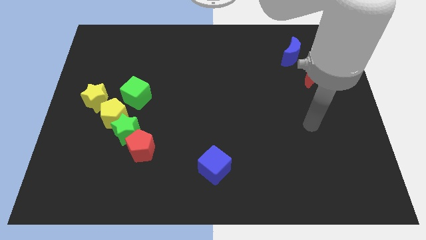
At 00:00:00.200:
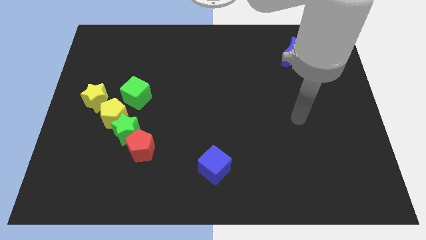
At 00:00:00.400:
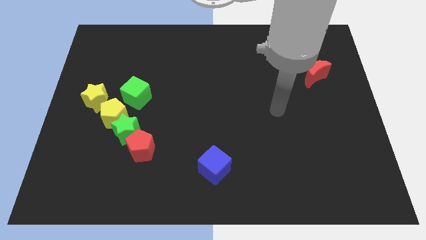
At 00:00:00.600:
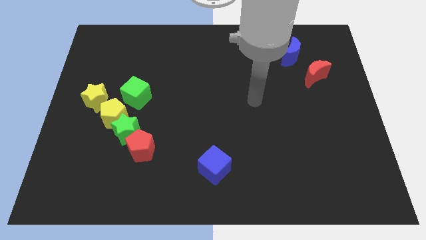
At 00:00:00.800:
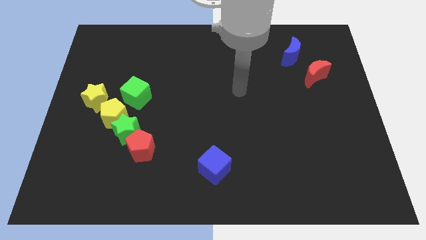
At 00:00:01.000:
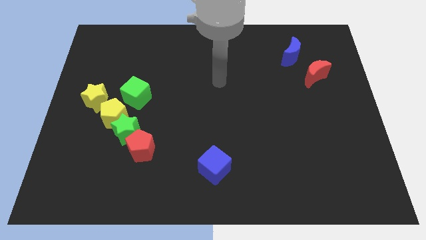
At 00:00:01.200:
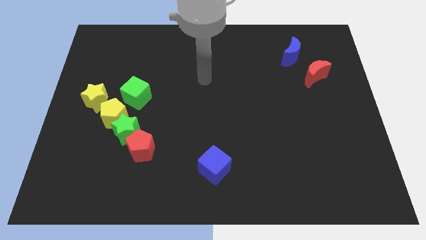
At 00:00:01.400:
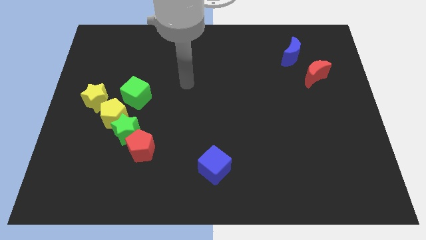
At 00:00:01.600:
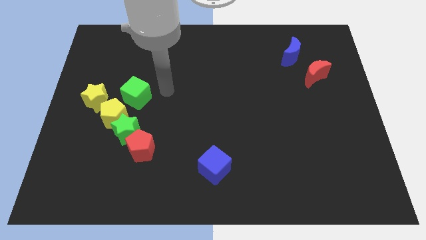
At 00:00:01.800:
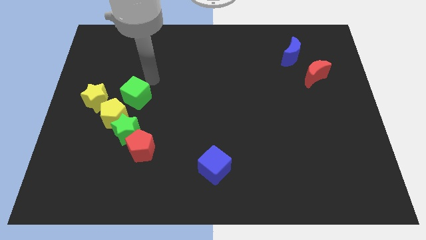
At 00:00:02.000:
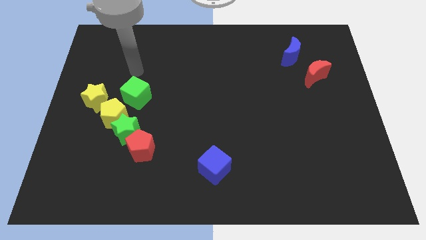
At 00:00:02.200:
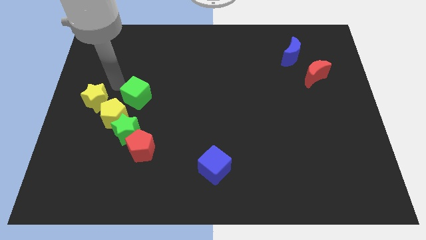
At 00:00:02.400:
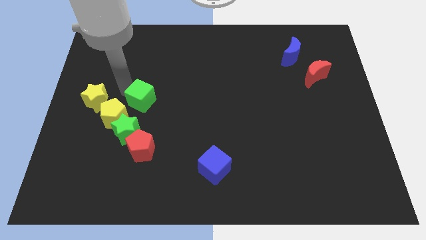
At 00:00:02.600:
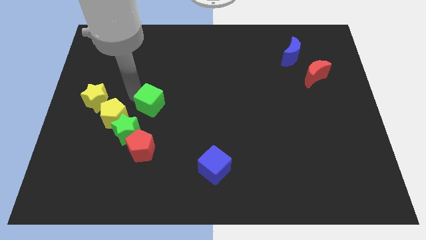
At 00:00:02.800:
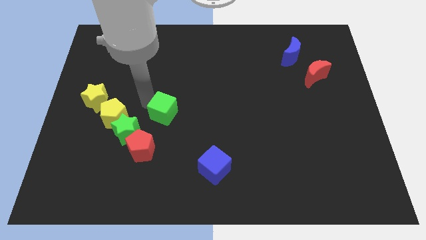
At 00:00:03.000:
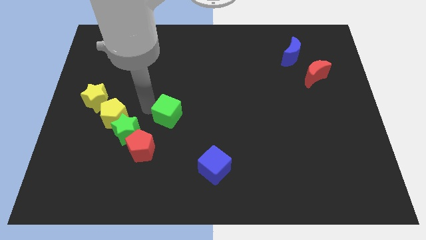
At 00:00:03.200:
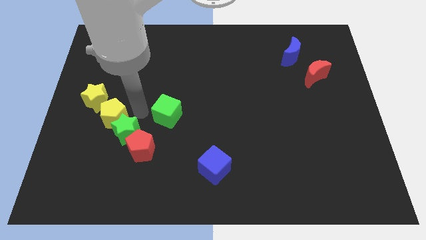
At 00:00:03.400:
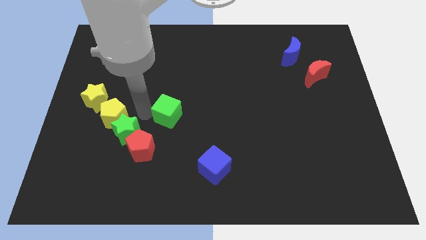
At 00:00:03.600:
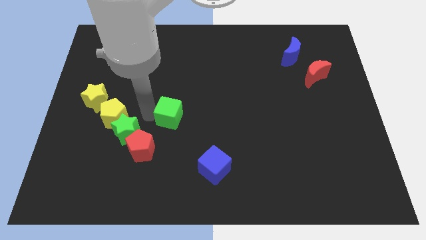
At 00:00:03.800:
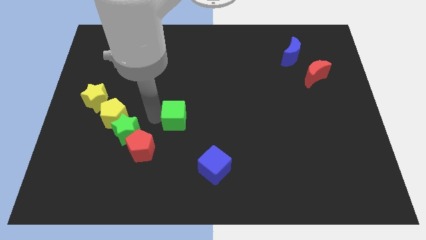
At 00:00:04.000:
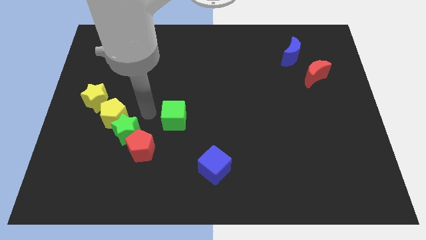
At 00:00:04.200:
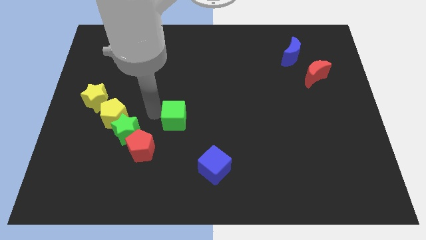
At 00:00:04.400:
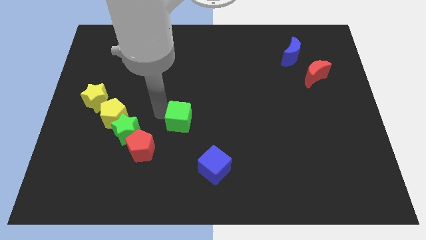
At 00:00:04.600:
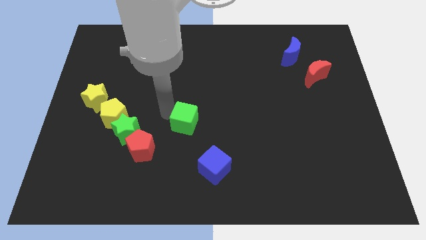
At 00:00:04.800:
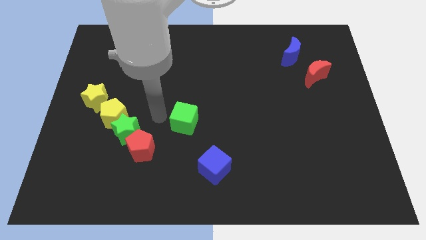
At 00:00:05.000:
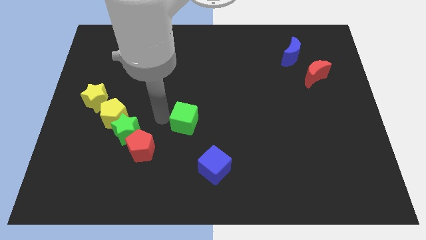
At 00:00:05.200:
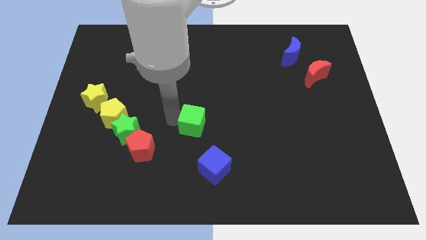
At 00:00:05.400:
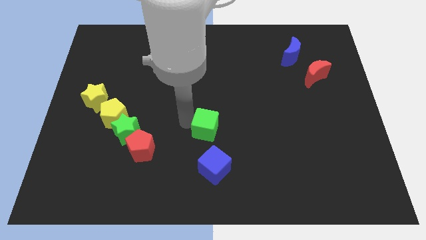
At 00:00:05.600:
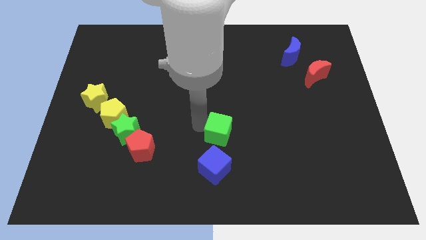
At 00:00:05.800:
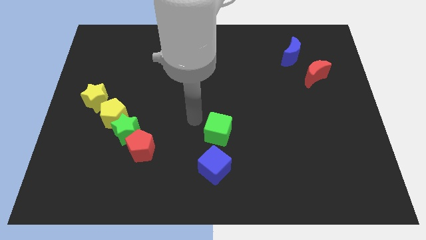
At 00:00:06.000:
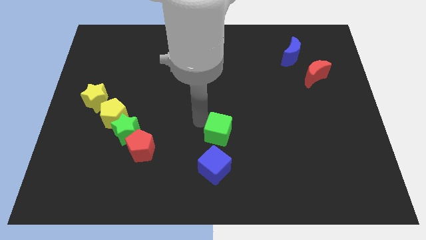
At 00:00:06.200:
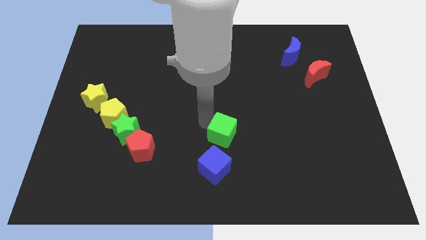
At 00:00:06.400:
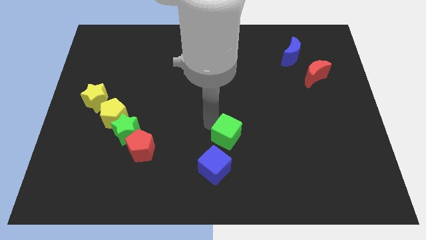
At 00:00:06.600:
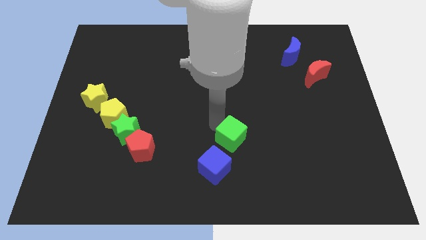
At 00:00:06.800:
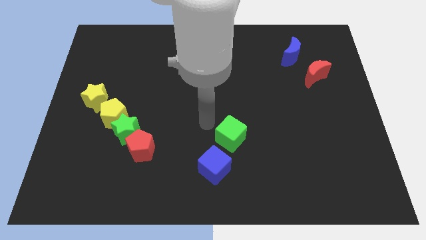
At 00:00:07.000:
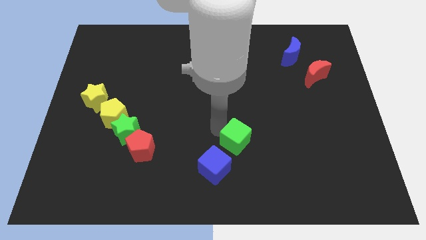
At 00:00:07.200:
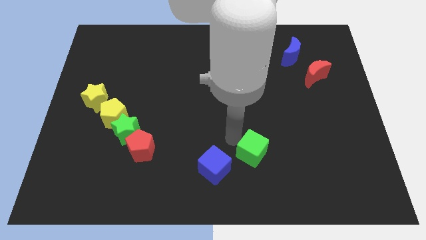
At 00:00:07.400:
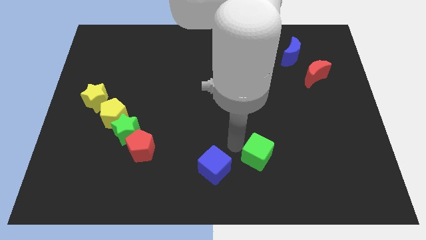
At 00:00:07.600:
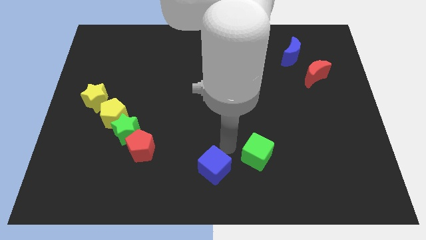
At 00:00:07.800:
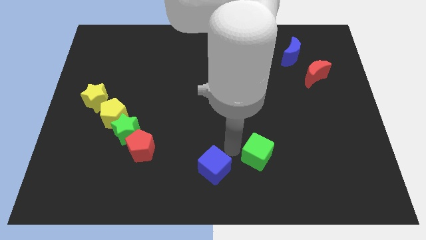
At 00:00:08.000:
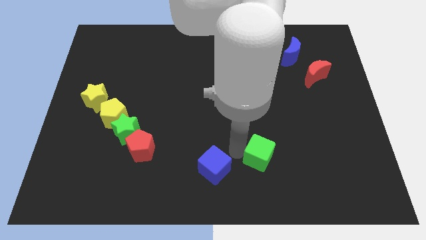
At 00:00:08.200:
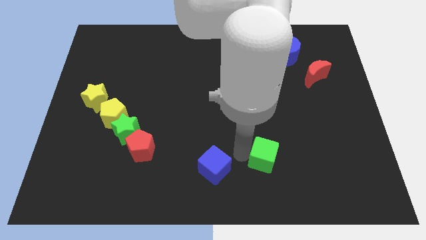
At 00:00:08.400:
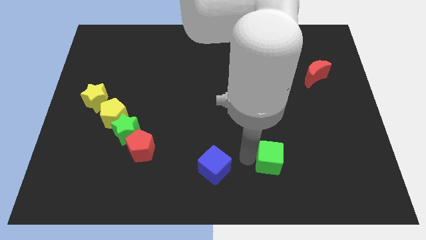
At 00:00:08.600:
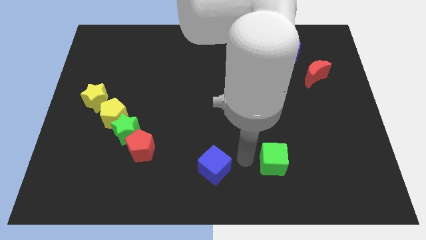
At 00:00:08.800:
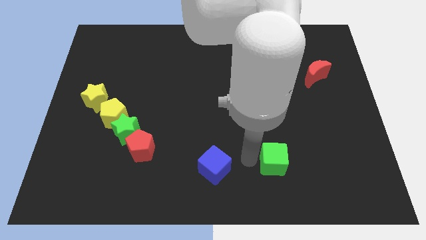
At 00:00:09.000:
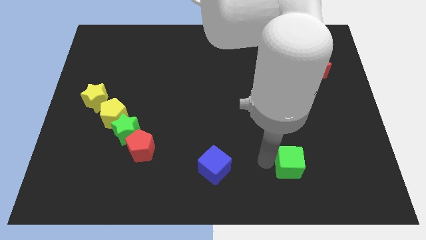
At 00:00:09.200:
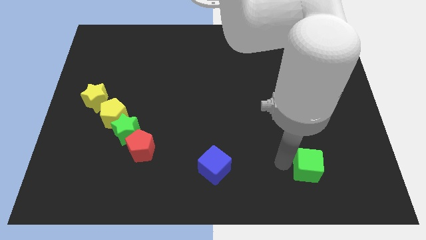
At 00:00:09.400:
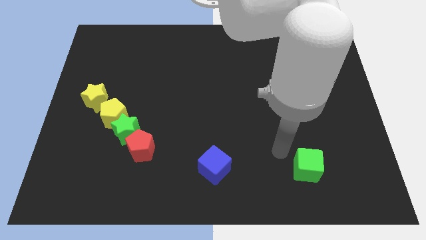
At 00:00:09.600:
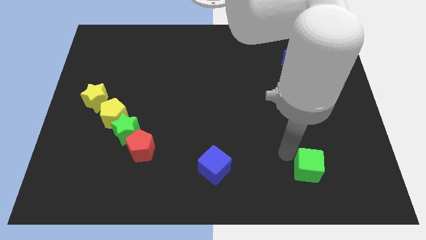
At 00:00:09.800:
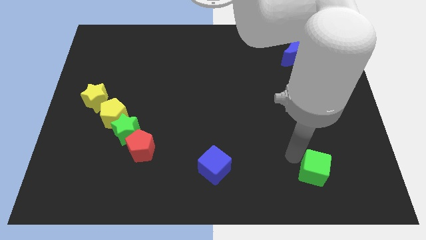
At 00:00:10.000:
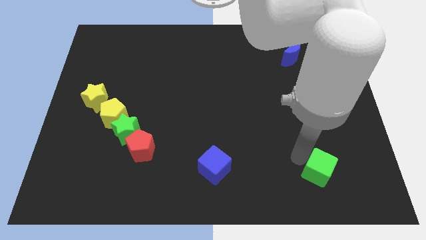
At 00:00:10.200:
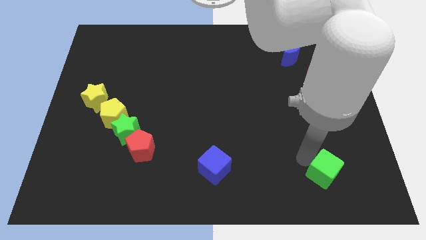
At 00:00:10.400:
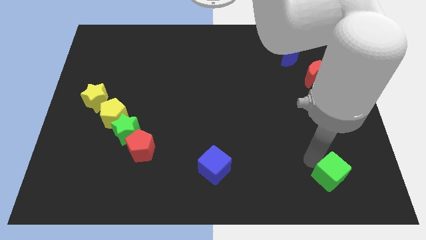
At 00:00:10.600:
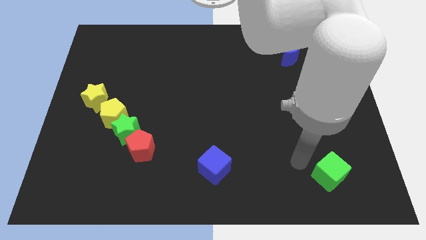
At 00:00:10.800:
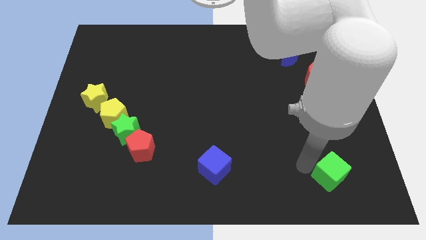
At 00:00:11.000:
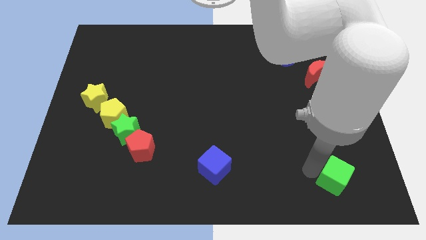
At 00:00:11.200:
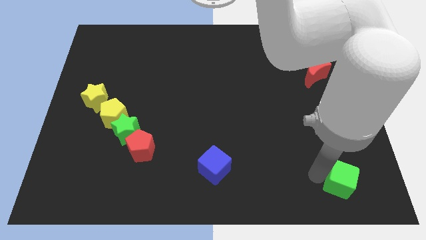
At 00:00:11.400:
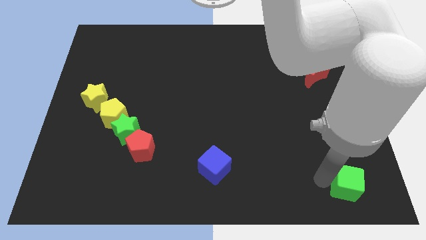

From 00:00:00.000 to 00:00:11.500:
slide the green cube to the bottom right corner
